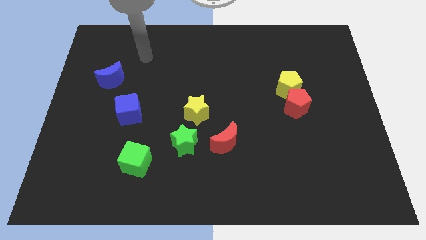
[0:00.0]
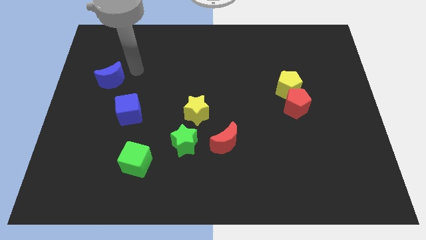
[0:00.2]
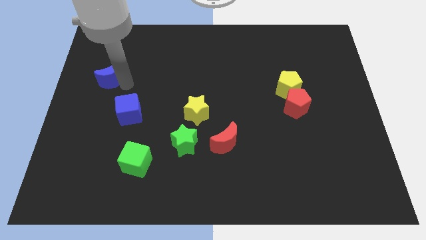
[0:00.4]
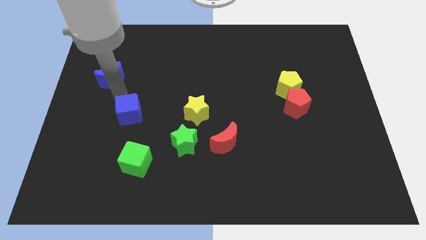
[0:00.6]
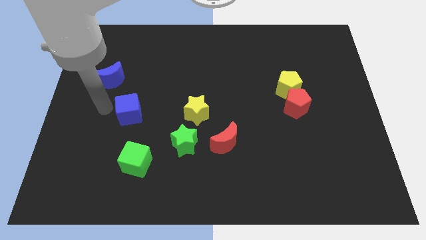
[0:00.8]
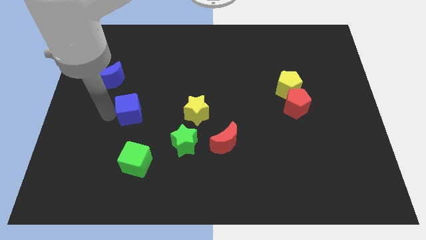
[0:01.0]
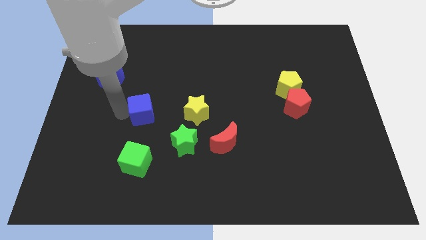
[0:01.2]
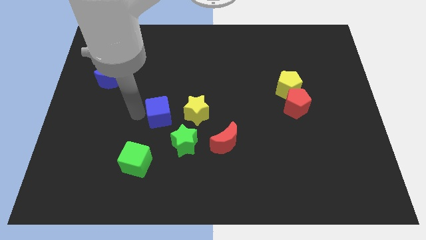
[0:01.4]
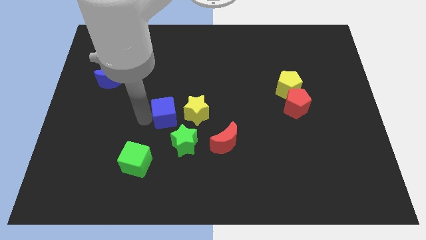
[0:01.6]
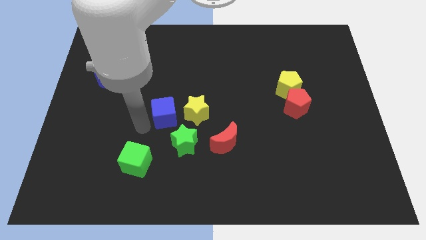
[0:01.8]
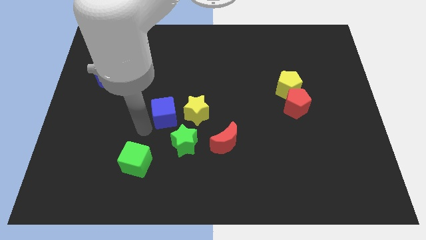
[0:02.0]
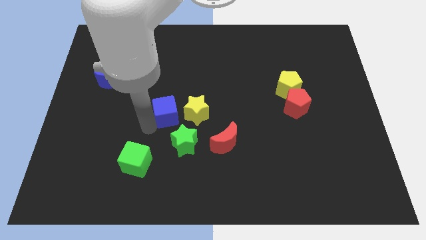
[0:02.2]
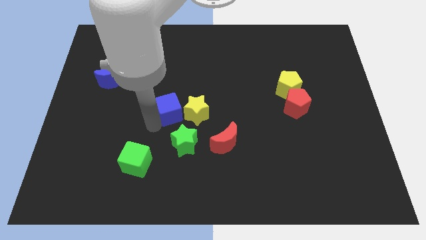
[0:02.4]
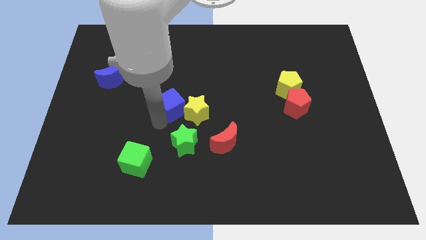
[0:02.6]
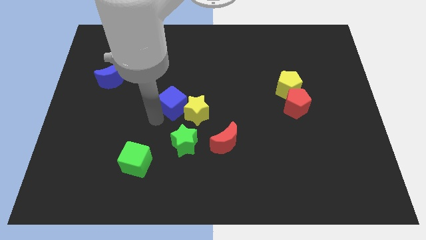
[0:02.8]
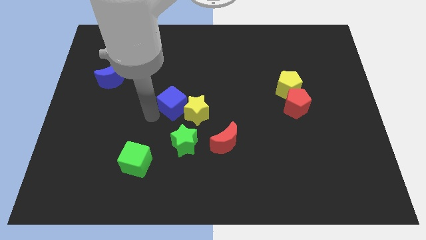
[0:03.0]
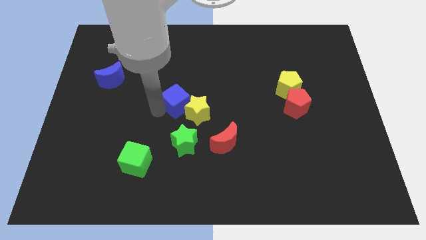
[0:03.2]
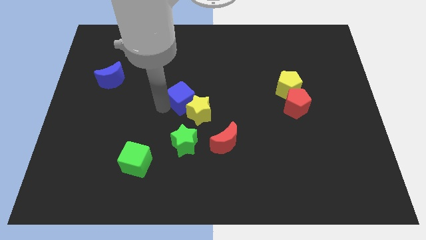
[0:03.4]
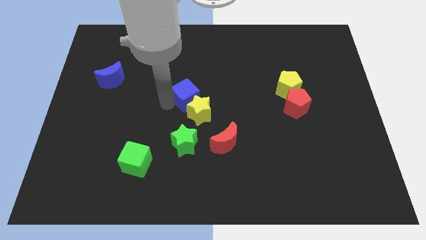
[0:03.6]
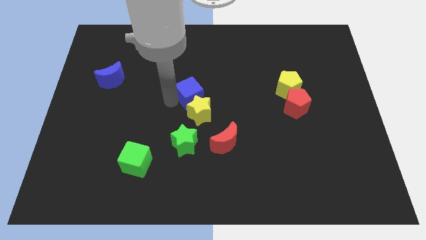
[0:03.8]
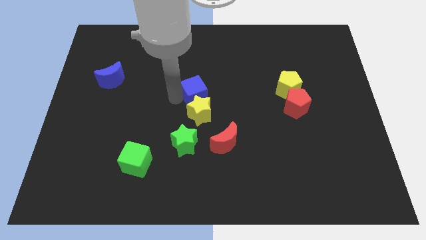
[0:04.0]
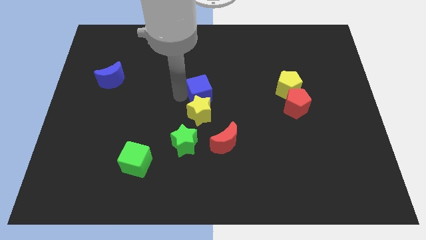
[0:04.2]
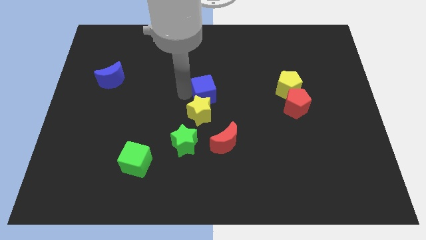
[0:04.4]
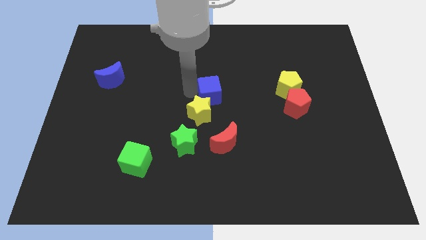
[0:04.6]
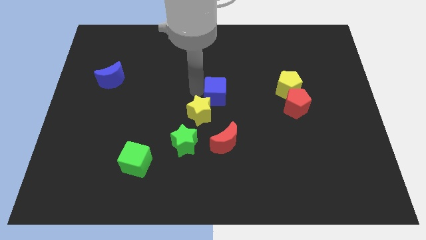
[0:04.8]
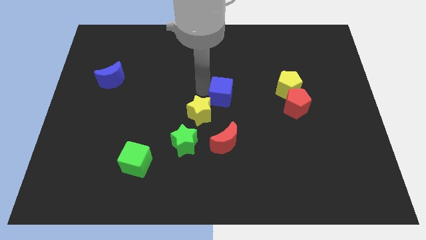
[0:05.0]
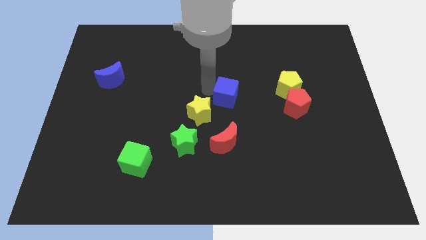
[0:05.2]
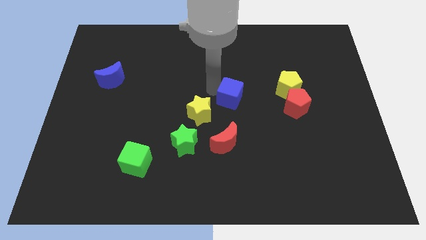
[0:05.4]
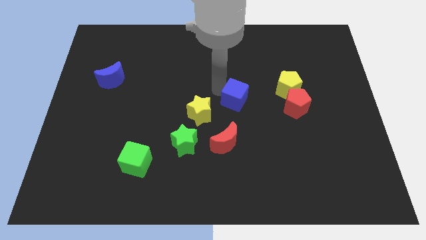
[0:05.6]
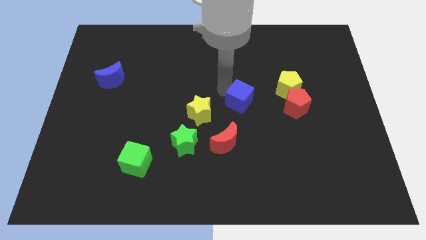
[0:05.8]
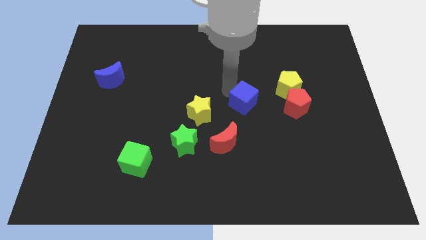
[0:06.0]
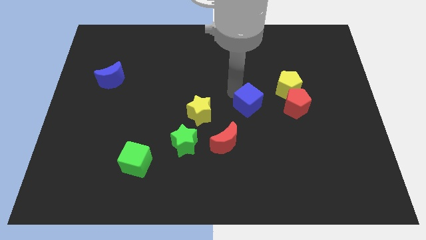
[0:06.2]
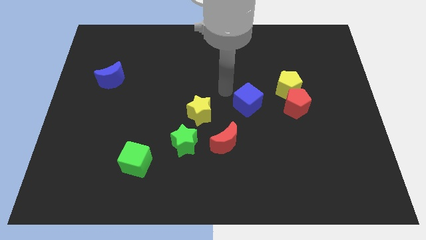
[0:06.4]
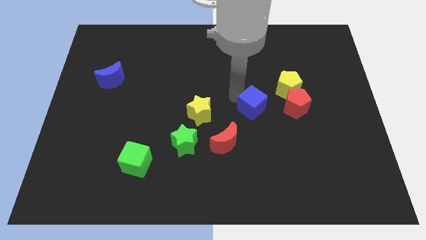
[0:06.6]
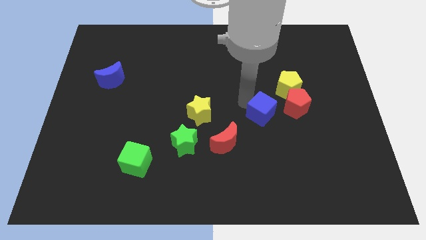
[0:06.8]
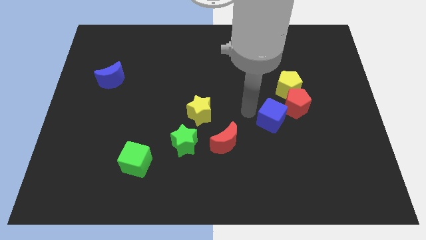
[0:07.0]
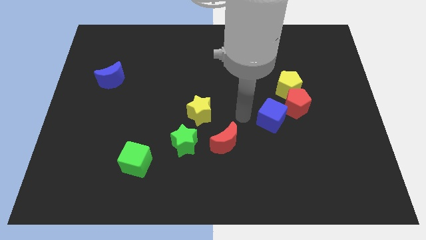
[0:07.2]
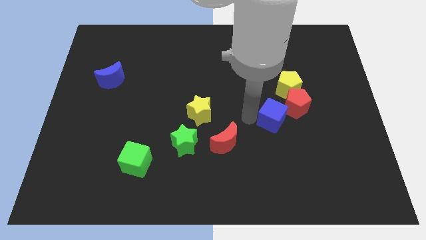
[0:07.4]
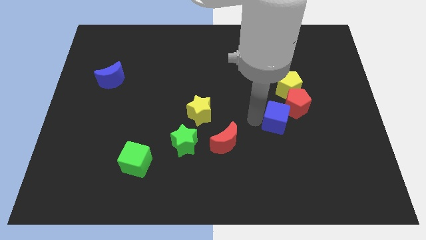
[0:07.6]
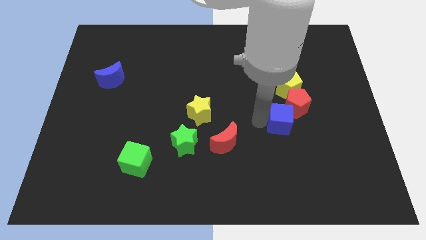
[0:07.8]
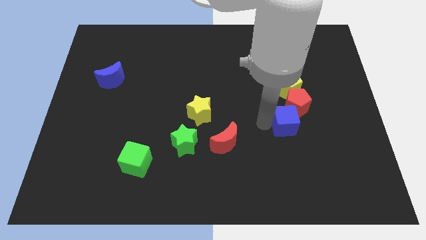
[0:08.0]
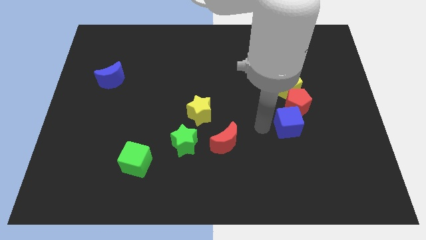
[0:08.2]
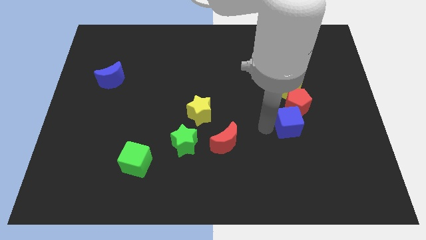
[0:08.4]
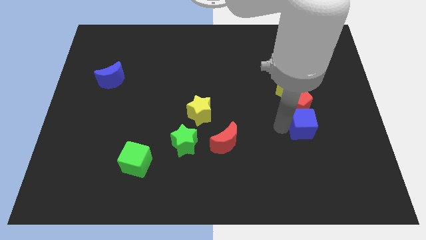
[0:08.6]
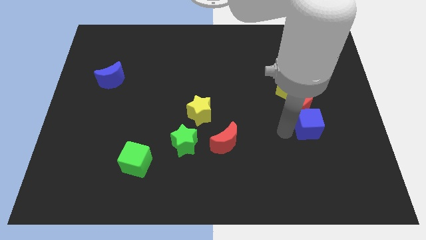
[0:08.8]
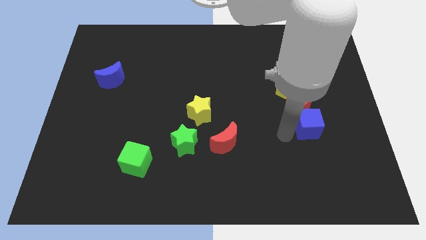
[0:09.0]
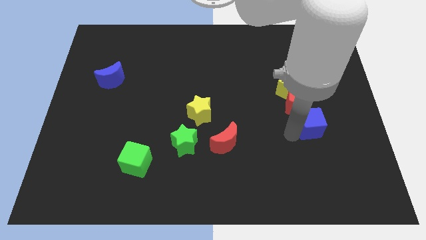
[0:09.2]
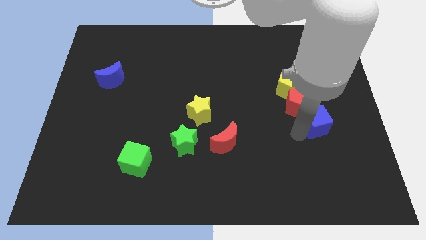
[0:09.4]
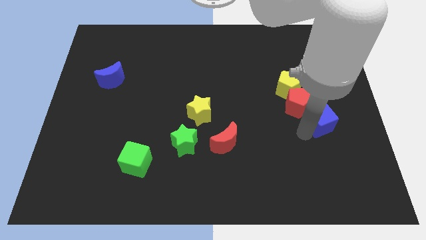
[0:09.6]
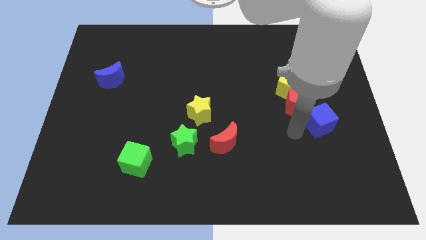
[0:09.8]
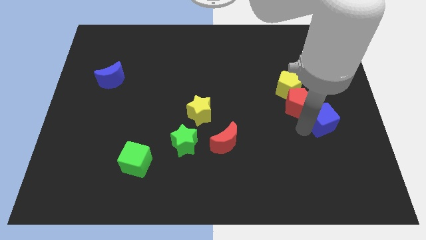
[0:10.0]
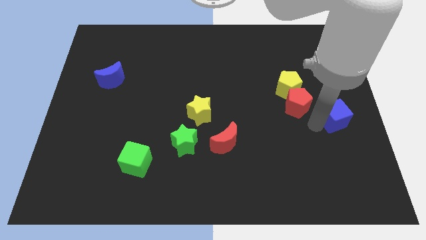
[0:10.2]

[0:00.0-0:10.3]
put the blue cube to the right side

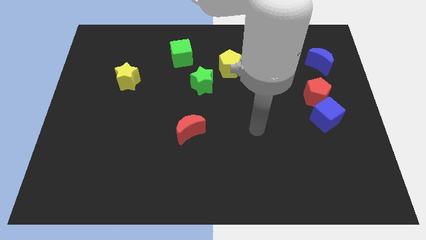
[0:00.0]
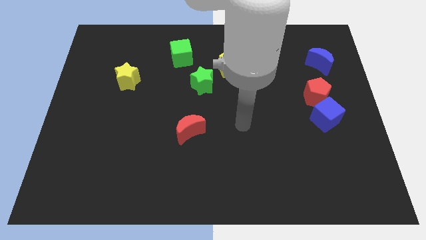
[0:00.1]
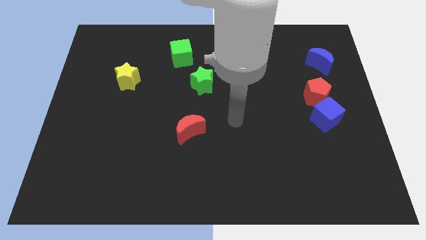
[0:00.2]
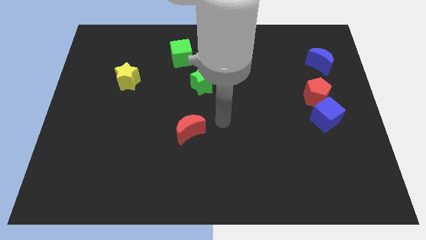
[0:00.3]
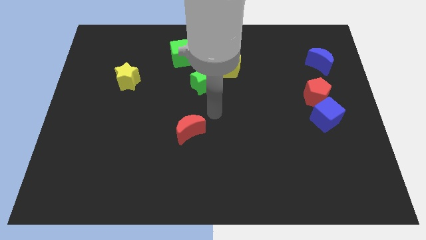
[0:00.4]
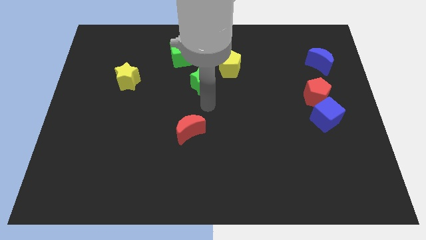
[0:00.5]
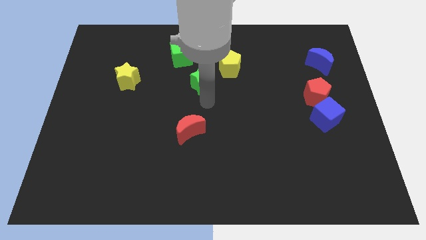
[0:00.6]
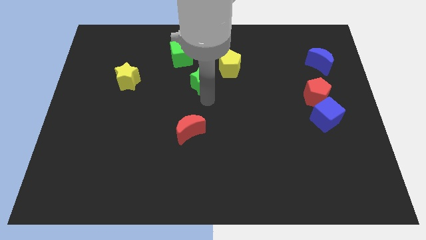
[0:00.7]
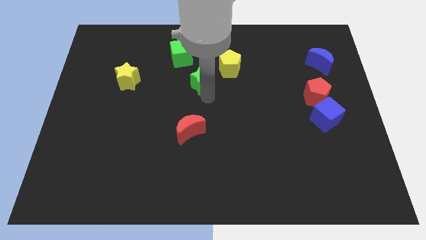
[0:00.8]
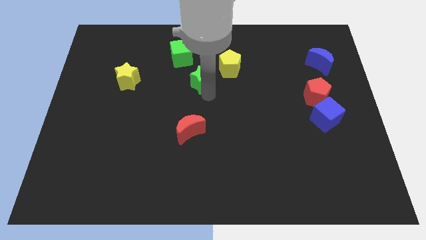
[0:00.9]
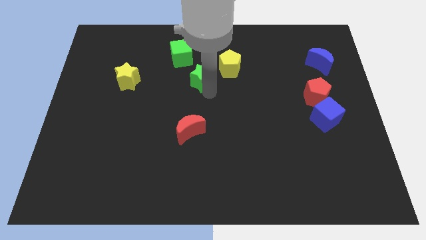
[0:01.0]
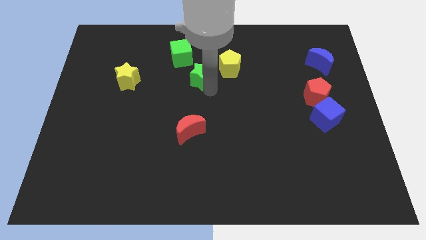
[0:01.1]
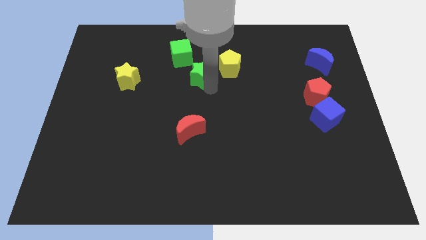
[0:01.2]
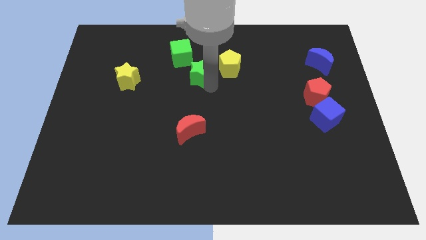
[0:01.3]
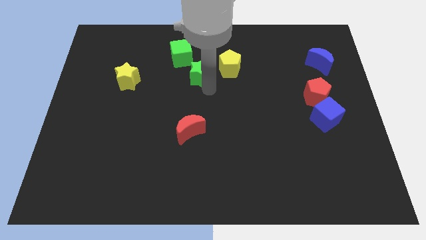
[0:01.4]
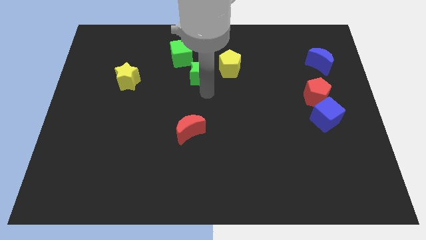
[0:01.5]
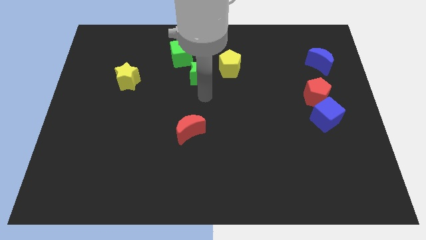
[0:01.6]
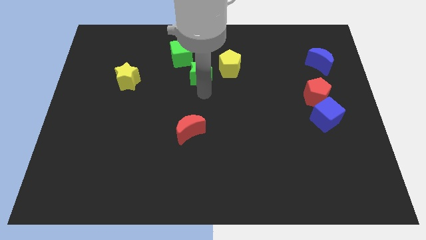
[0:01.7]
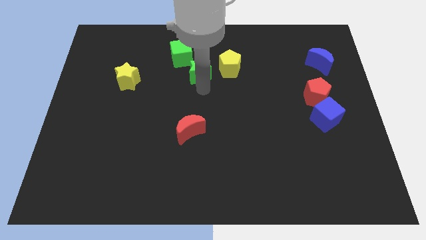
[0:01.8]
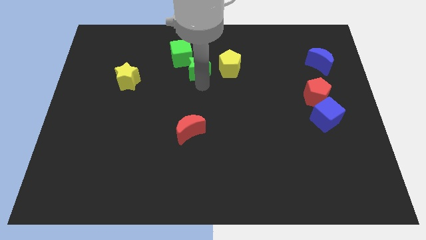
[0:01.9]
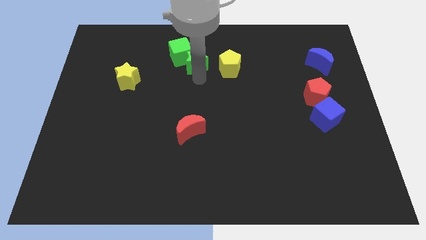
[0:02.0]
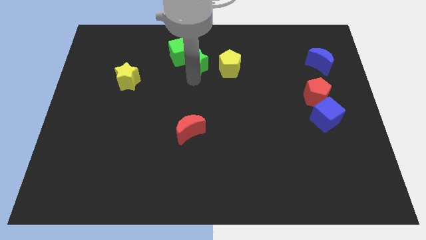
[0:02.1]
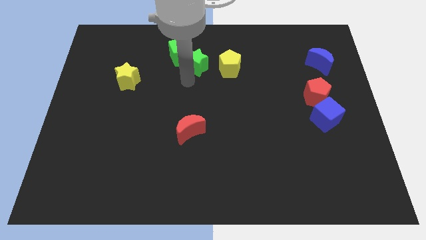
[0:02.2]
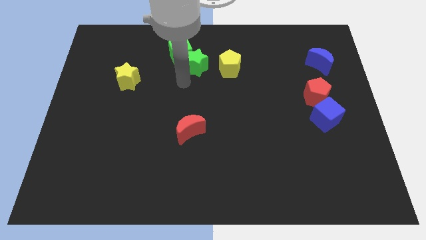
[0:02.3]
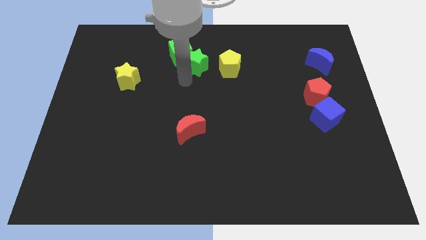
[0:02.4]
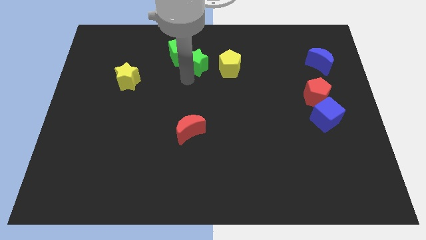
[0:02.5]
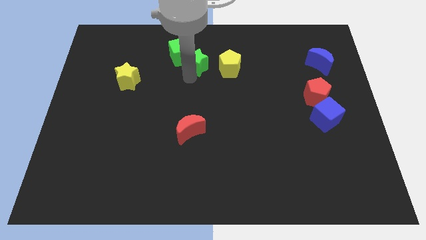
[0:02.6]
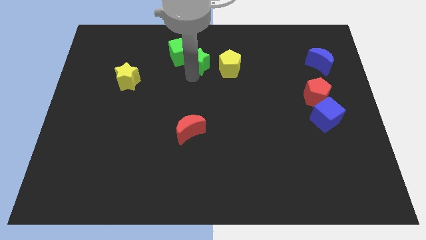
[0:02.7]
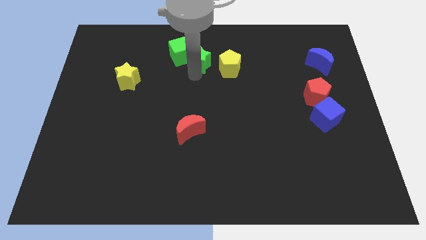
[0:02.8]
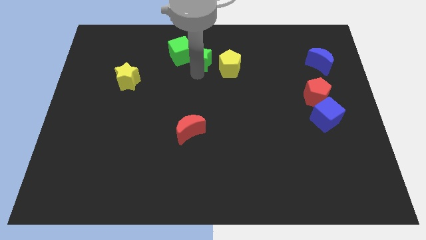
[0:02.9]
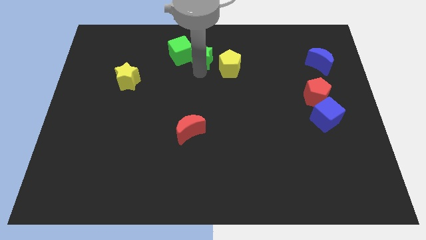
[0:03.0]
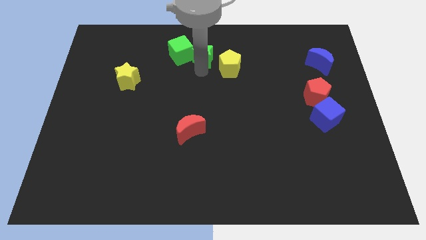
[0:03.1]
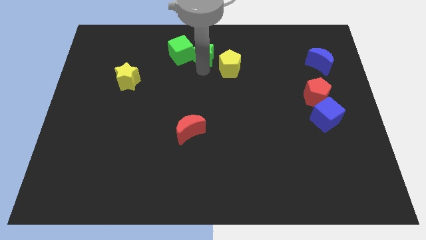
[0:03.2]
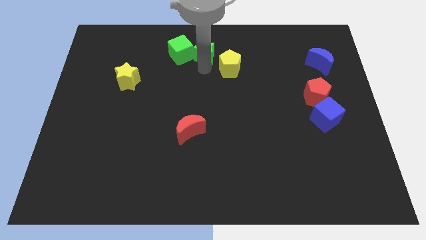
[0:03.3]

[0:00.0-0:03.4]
slide the green star to the towards your base
